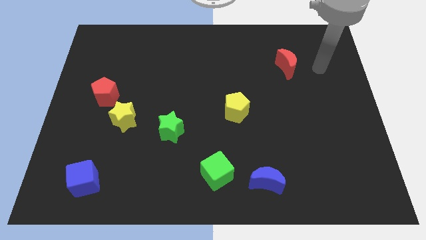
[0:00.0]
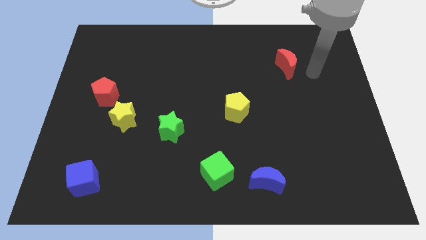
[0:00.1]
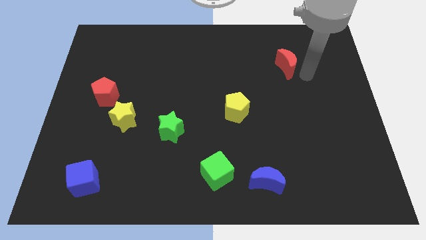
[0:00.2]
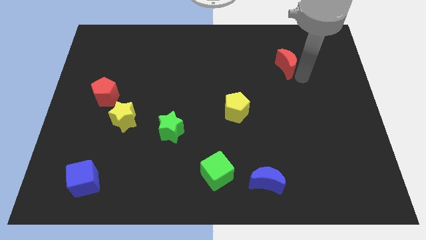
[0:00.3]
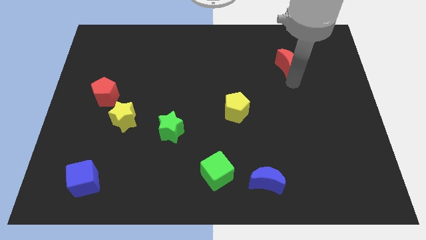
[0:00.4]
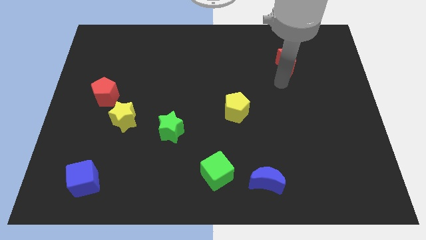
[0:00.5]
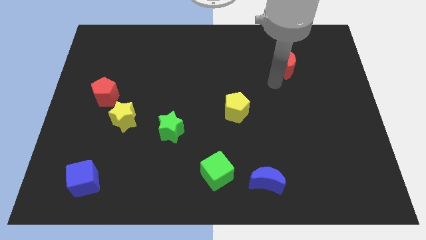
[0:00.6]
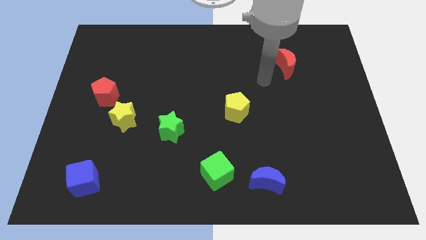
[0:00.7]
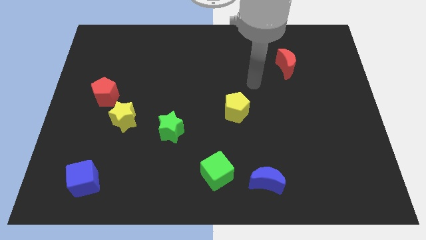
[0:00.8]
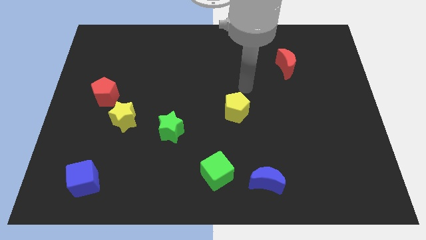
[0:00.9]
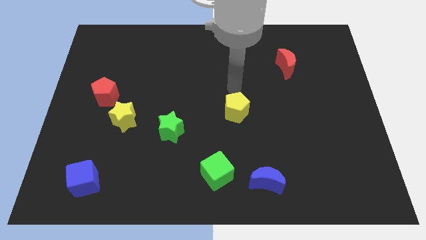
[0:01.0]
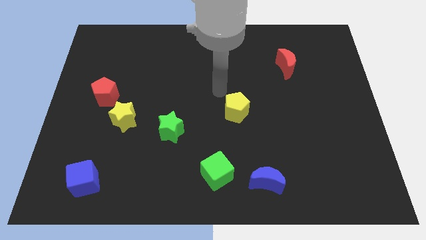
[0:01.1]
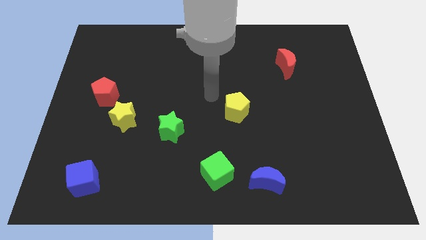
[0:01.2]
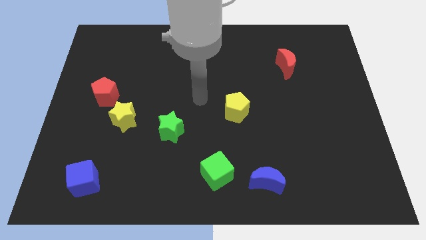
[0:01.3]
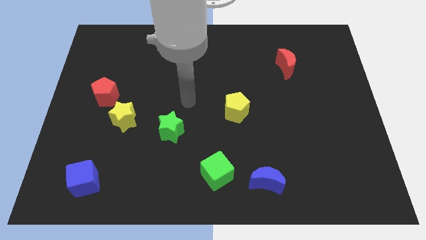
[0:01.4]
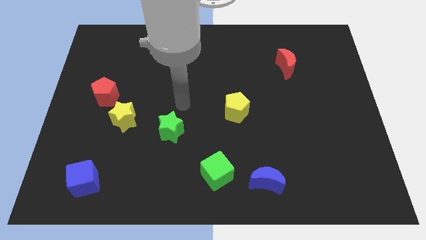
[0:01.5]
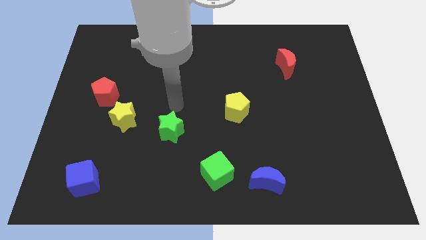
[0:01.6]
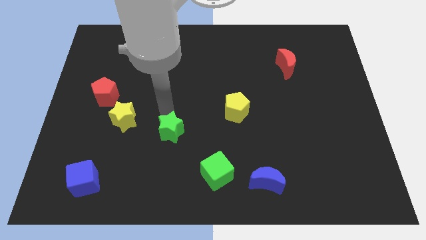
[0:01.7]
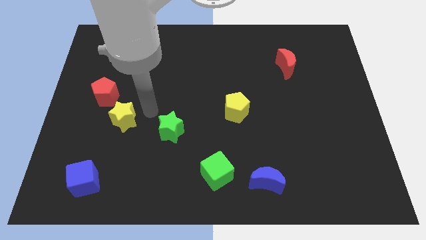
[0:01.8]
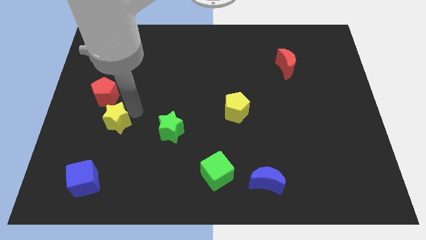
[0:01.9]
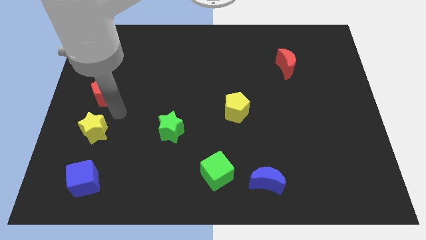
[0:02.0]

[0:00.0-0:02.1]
separate the red pentagon from the yellow star

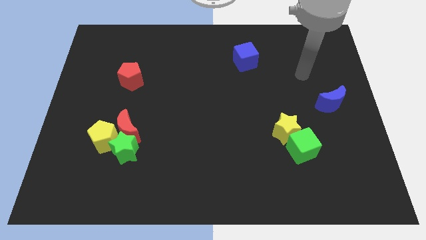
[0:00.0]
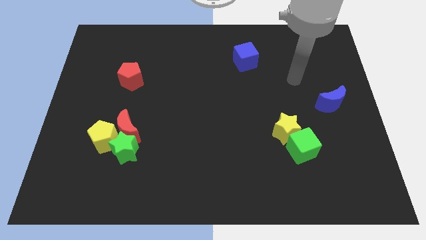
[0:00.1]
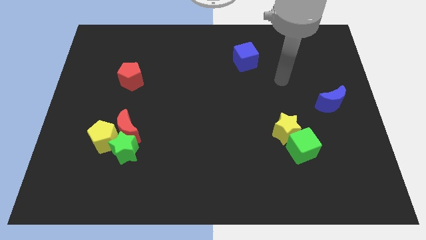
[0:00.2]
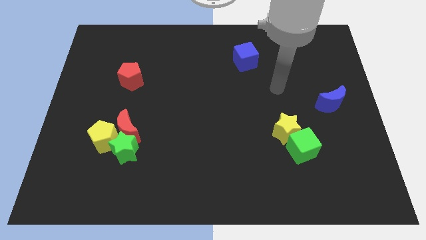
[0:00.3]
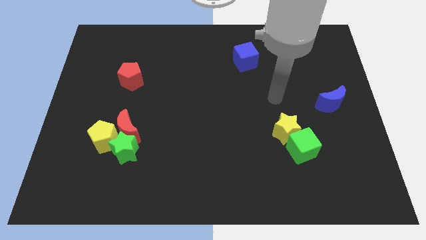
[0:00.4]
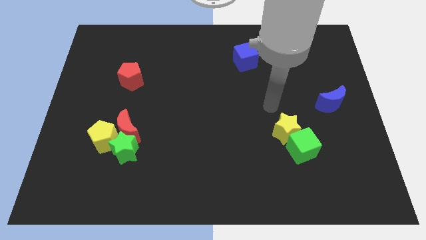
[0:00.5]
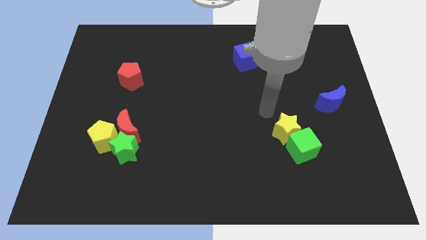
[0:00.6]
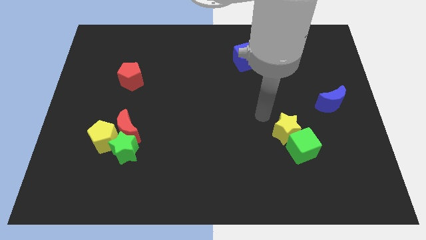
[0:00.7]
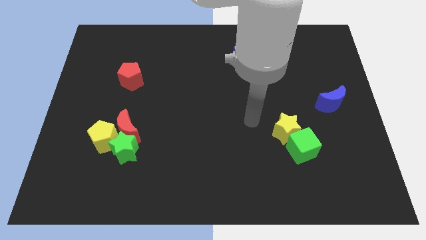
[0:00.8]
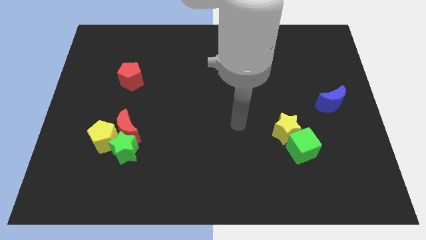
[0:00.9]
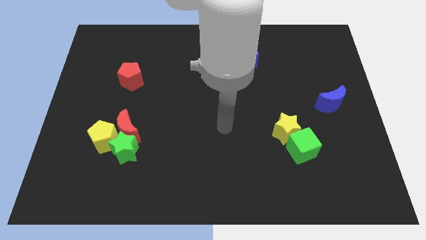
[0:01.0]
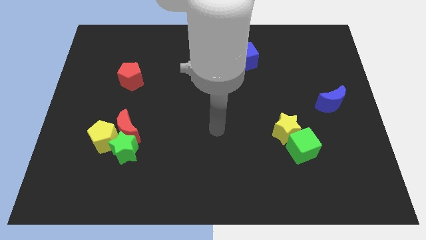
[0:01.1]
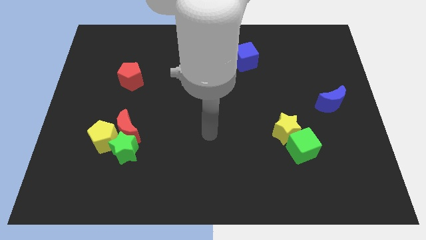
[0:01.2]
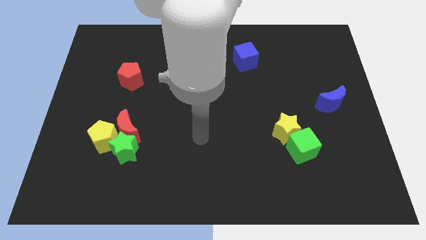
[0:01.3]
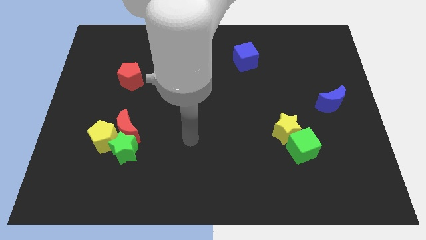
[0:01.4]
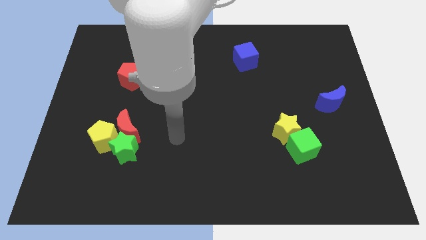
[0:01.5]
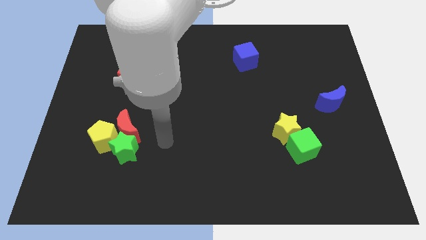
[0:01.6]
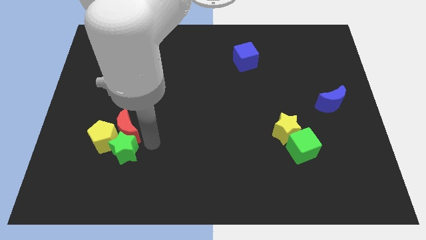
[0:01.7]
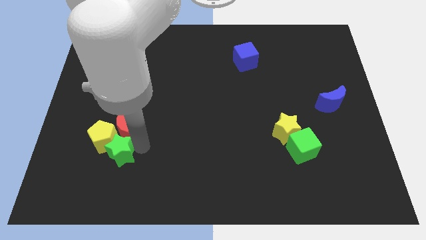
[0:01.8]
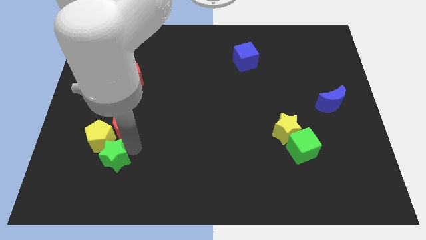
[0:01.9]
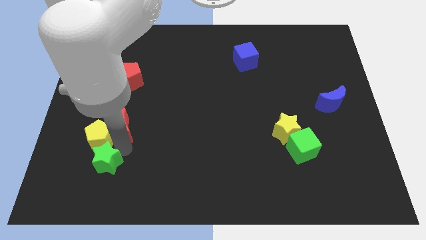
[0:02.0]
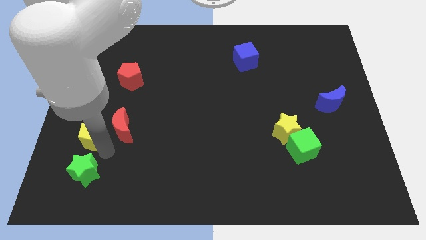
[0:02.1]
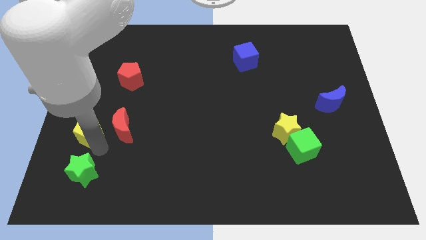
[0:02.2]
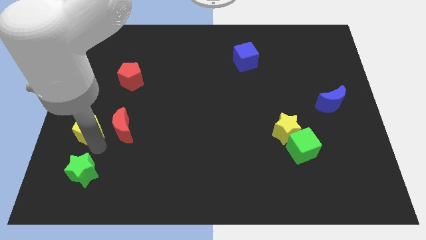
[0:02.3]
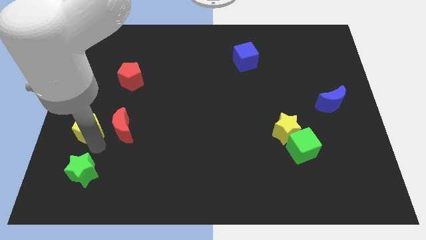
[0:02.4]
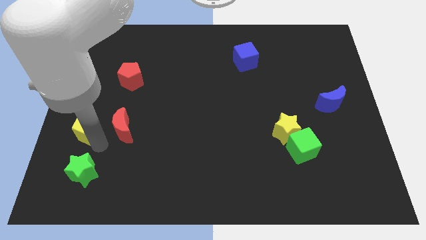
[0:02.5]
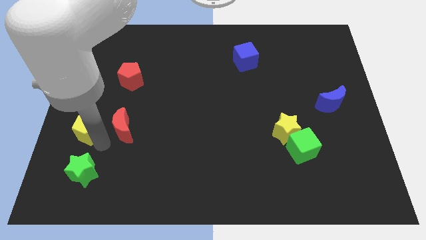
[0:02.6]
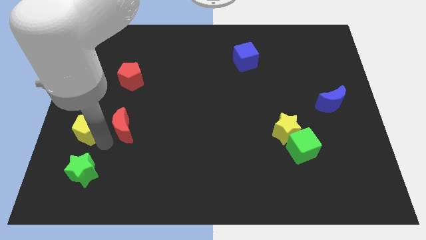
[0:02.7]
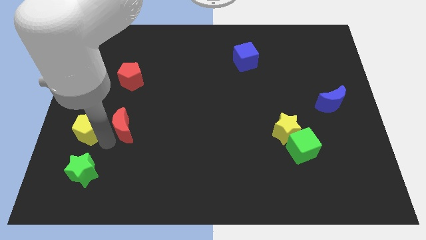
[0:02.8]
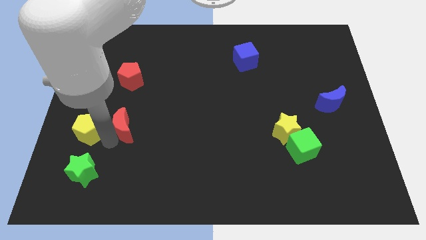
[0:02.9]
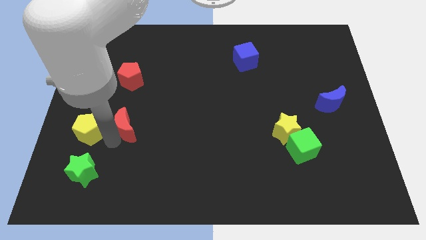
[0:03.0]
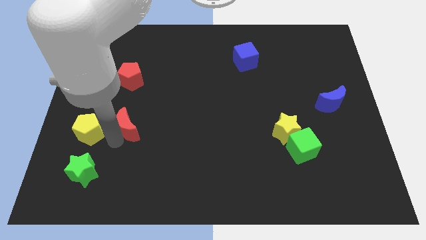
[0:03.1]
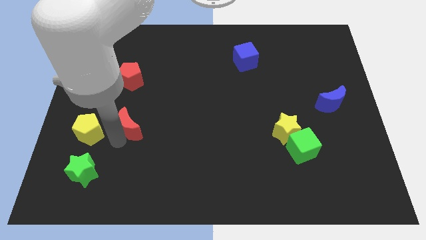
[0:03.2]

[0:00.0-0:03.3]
pull the red moon apart from the yellow pentagon and green star

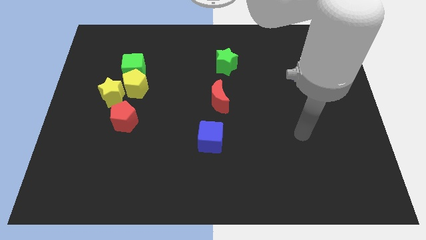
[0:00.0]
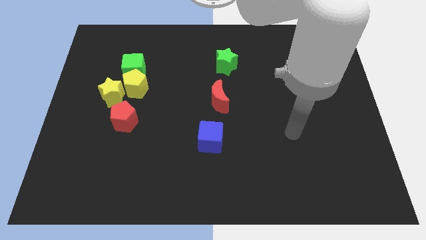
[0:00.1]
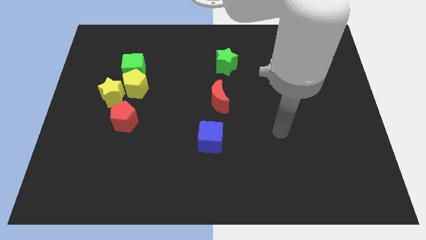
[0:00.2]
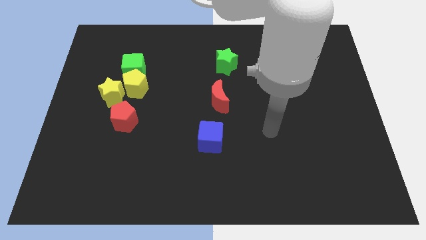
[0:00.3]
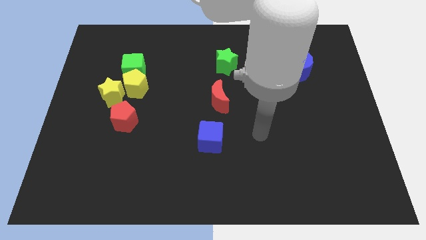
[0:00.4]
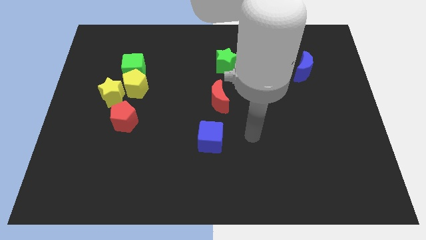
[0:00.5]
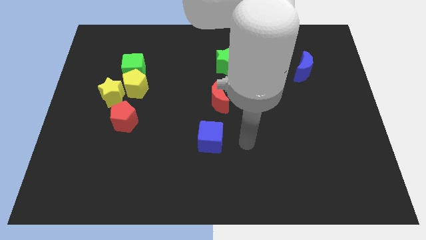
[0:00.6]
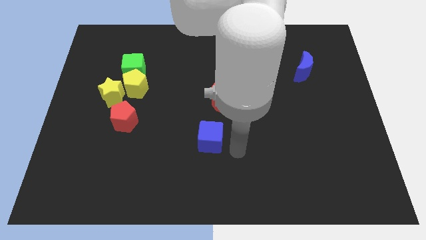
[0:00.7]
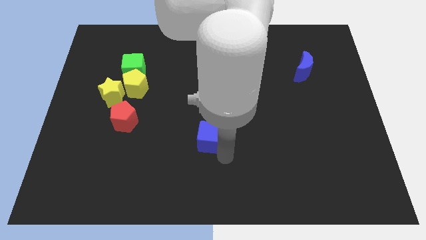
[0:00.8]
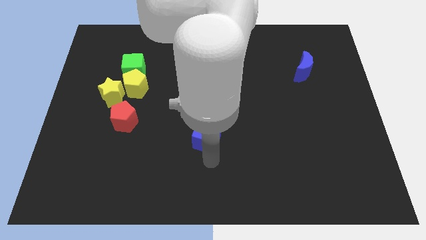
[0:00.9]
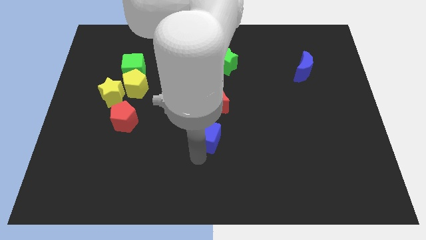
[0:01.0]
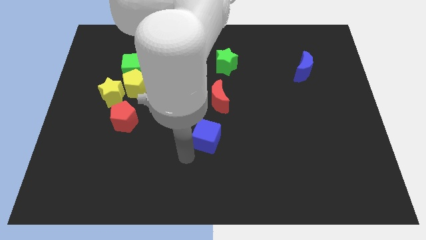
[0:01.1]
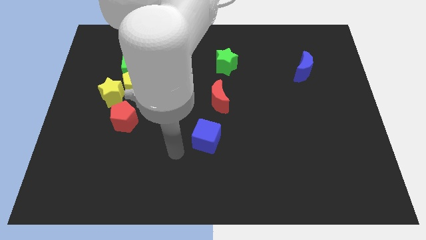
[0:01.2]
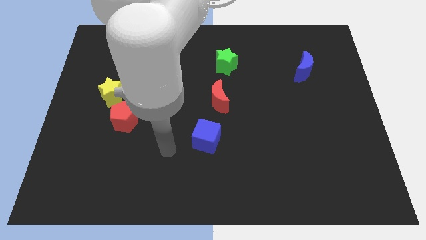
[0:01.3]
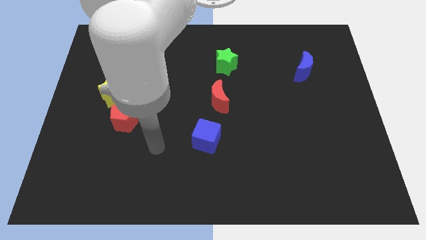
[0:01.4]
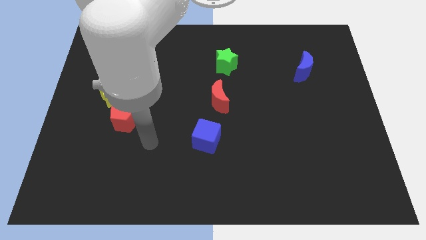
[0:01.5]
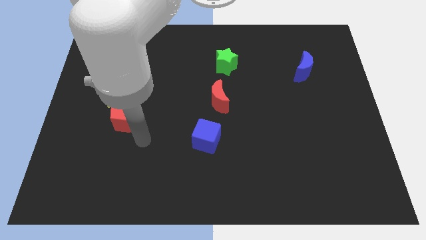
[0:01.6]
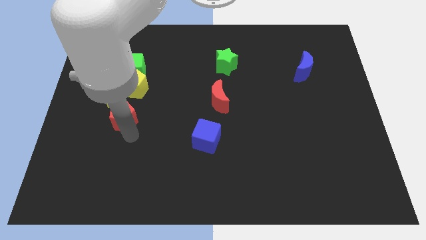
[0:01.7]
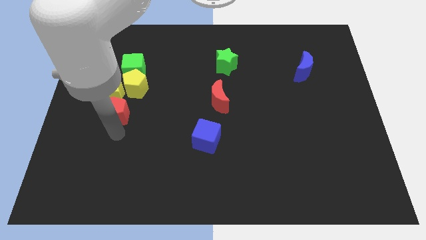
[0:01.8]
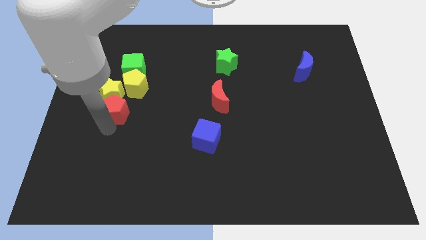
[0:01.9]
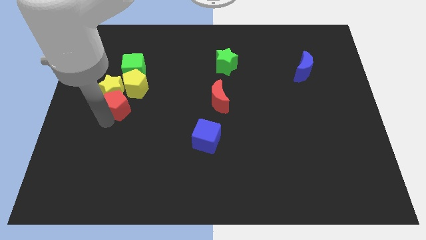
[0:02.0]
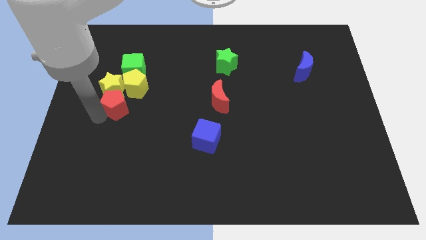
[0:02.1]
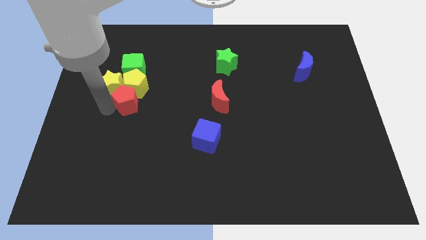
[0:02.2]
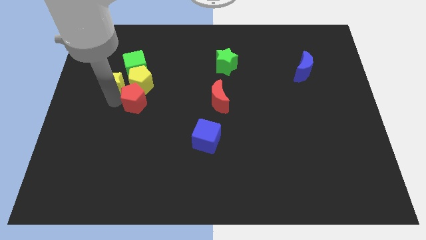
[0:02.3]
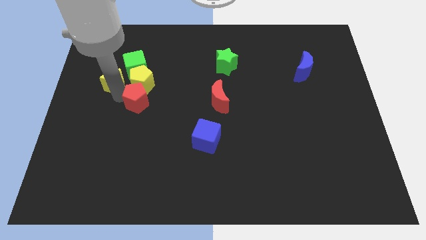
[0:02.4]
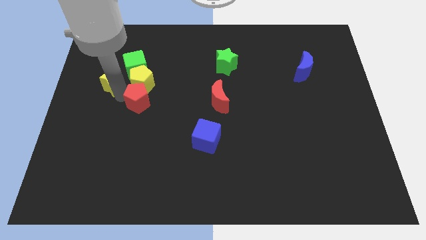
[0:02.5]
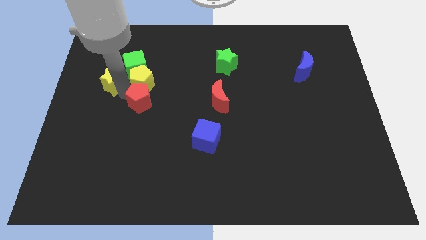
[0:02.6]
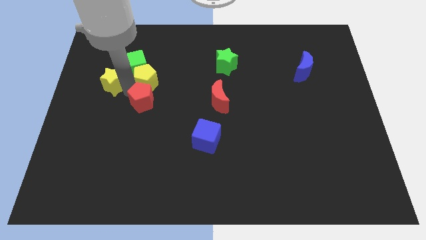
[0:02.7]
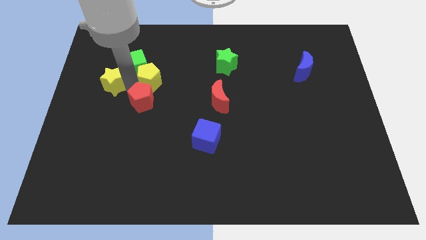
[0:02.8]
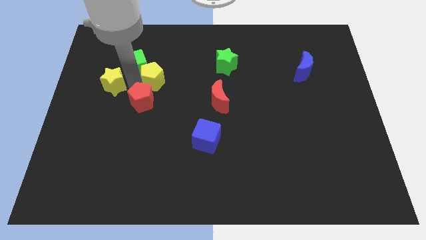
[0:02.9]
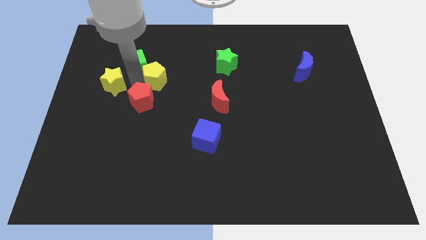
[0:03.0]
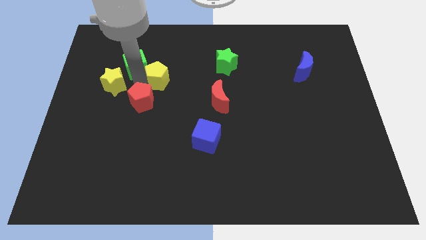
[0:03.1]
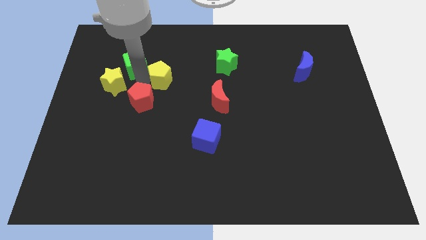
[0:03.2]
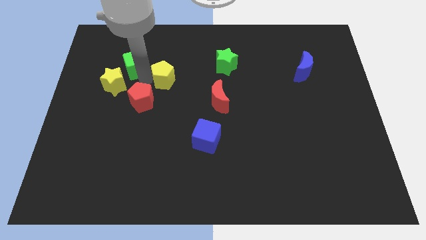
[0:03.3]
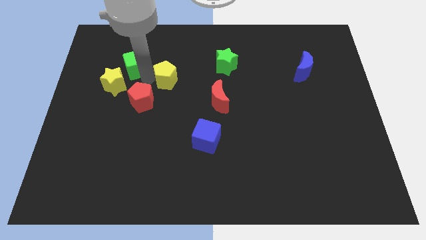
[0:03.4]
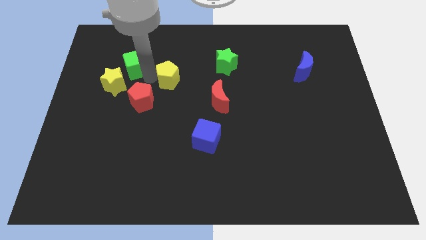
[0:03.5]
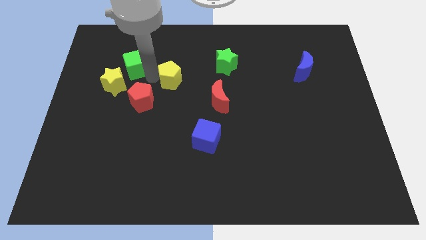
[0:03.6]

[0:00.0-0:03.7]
pull the yellow pentagon apart from the green cube, yellow star, and red pentagon

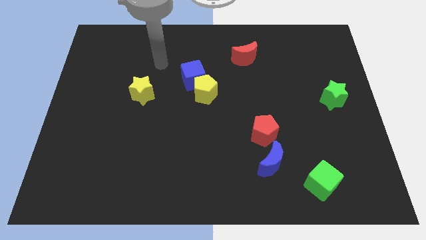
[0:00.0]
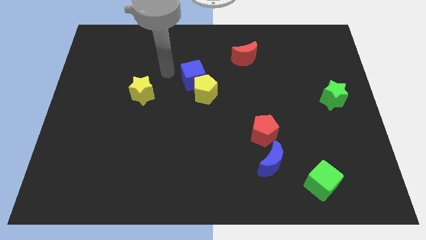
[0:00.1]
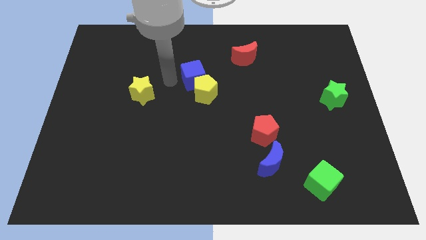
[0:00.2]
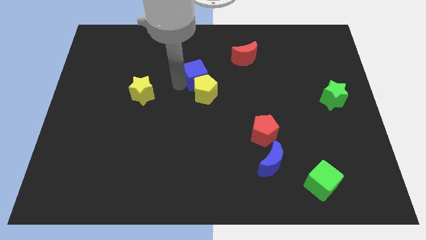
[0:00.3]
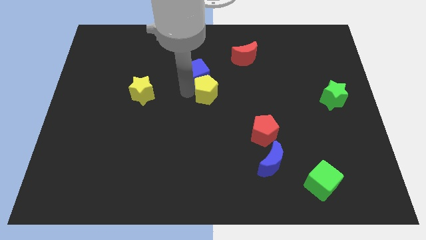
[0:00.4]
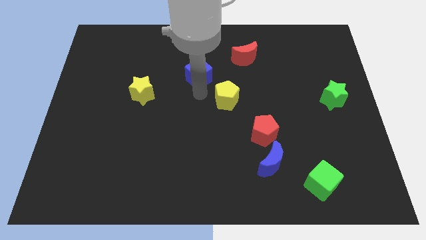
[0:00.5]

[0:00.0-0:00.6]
pull the blue cube apart from the yellow pentagon
